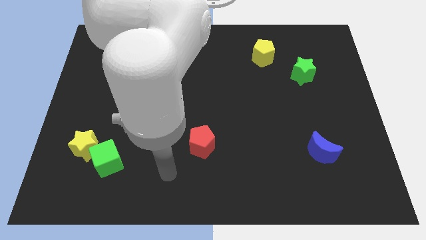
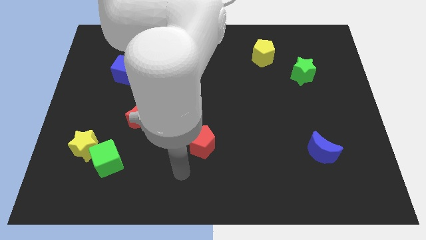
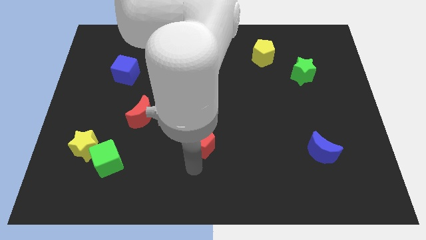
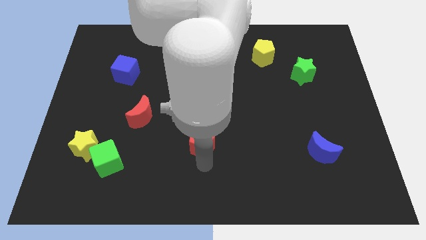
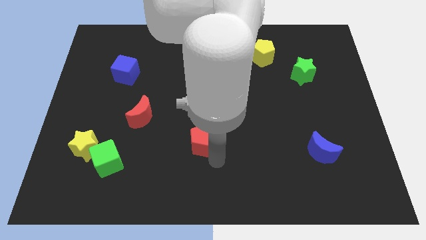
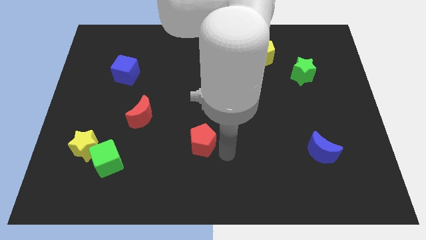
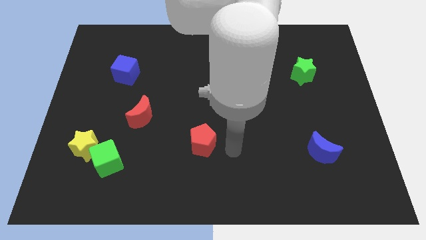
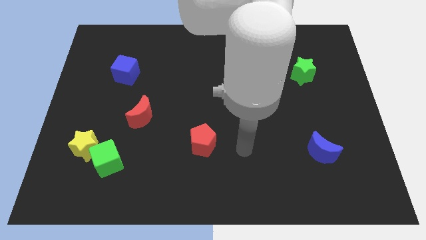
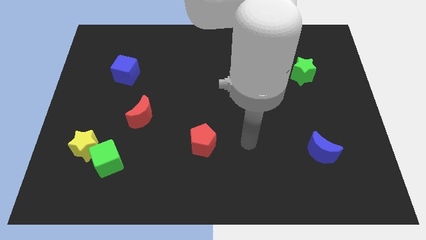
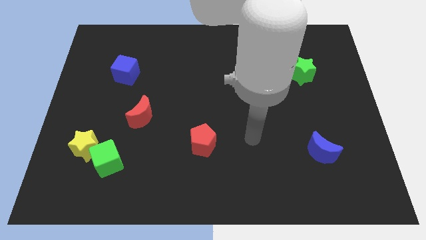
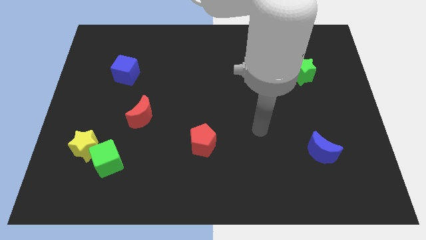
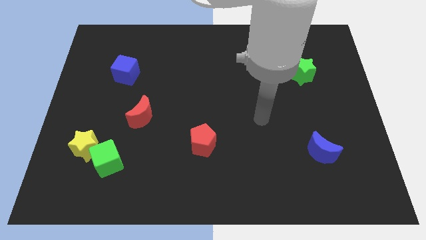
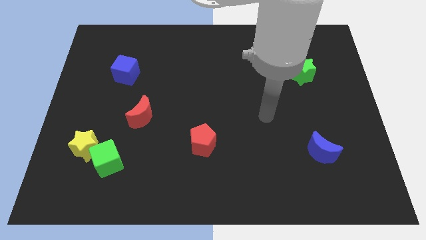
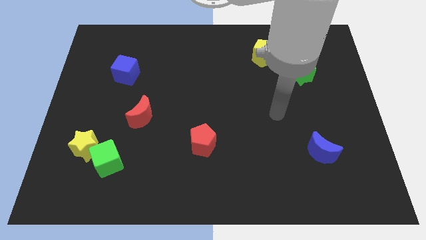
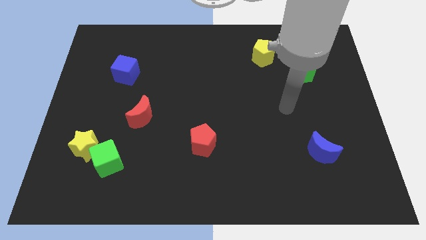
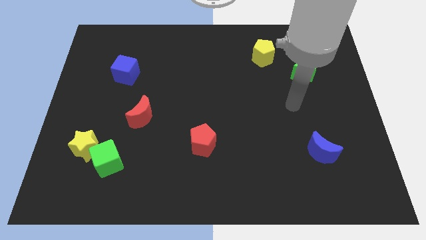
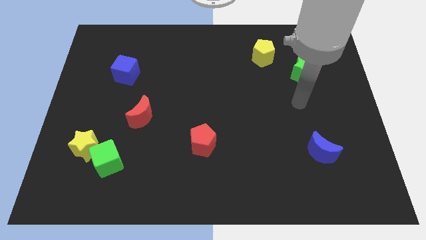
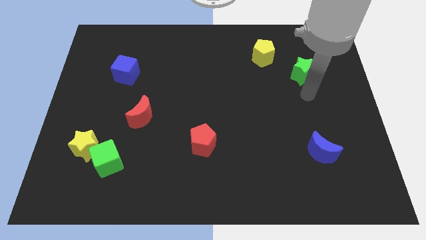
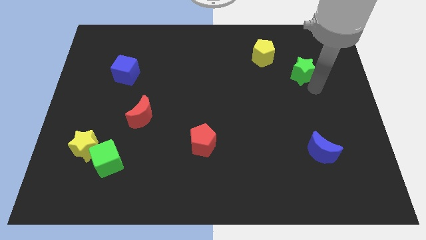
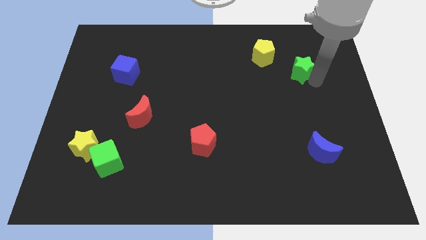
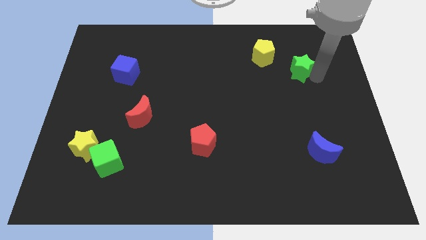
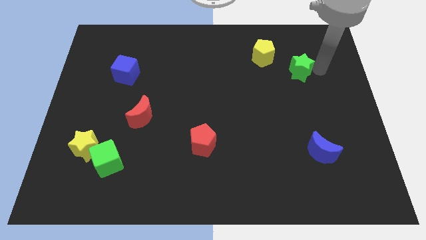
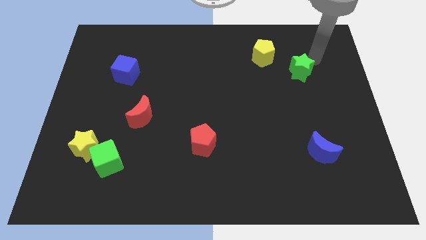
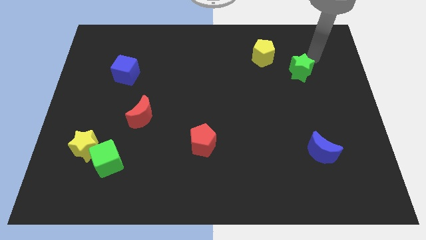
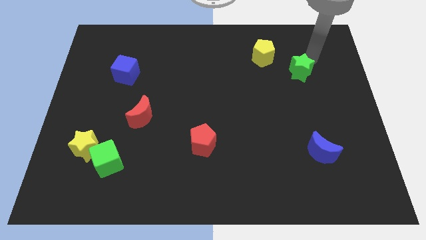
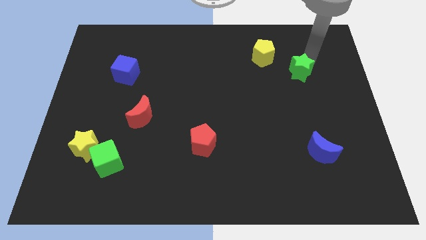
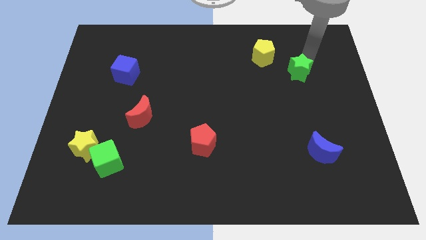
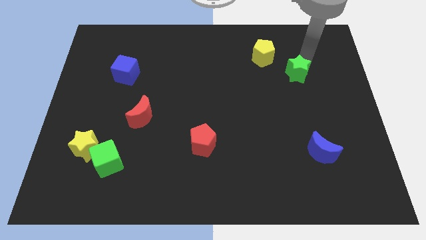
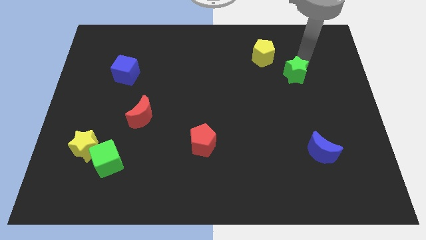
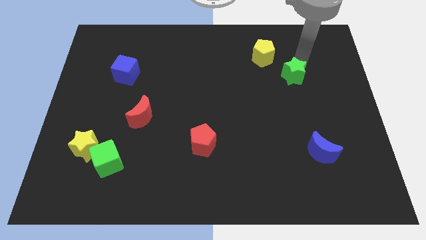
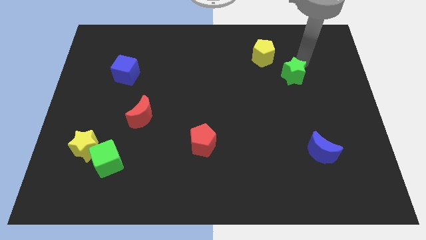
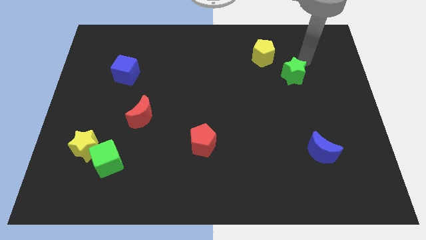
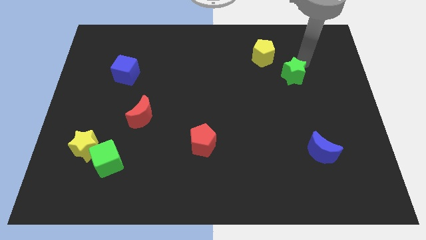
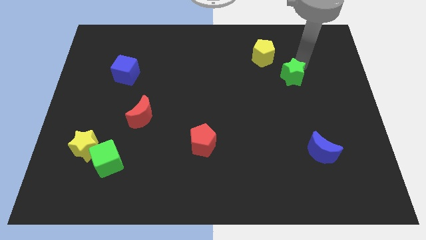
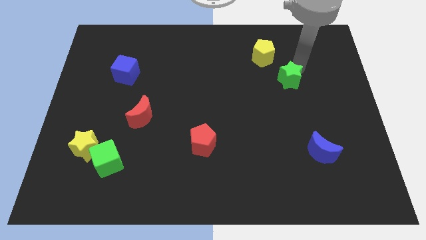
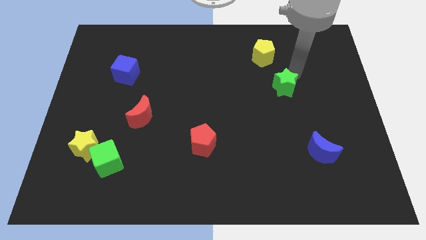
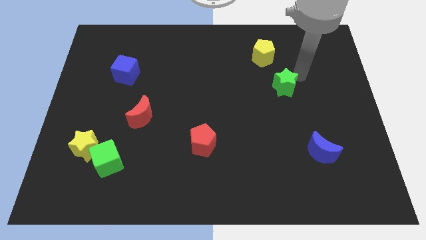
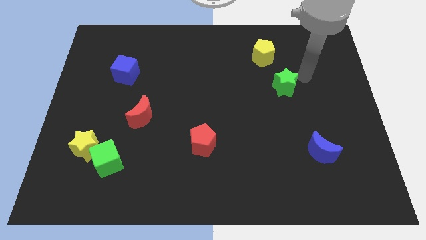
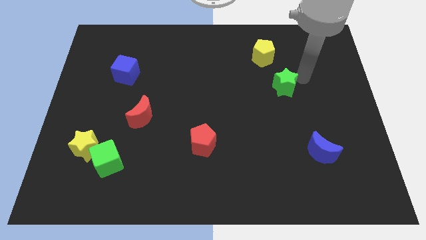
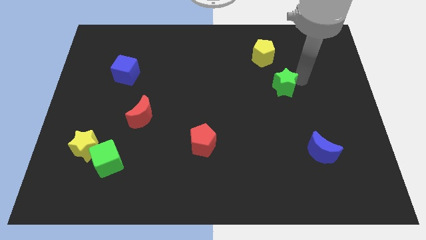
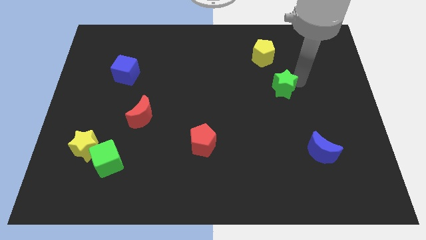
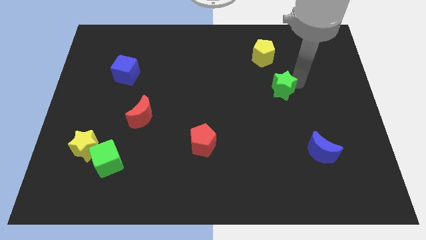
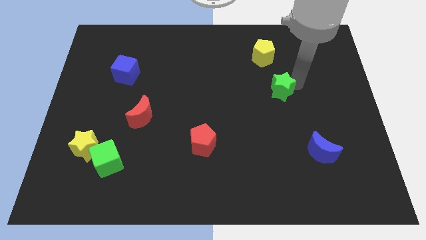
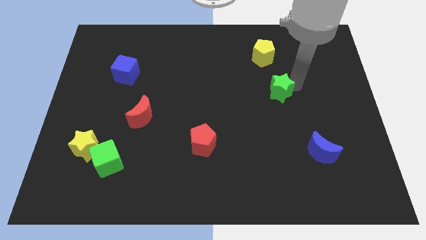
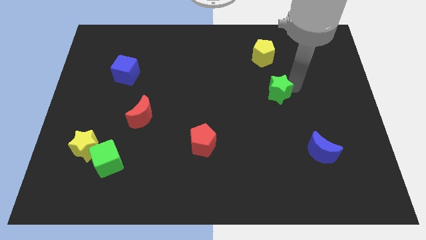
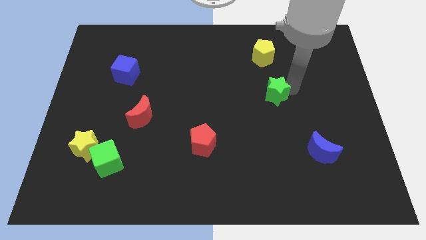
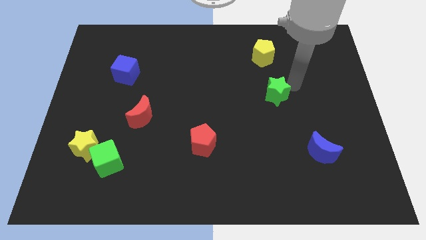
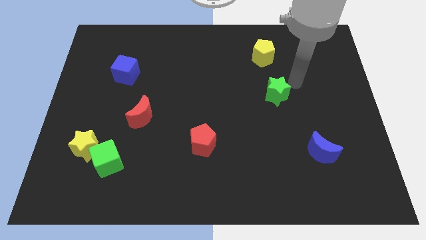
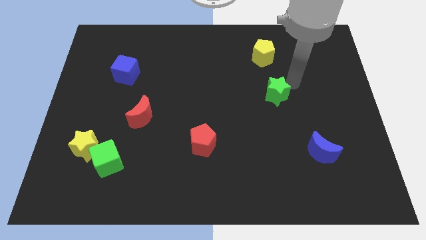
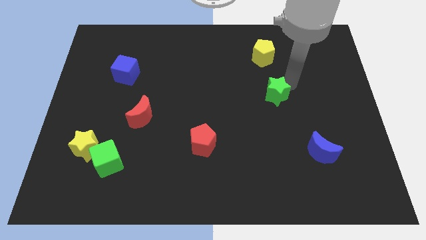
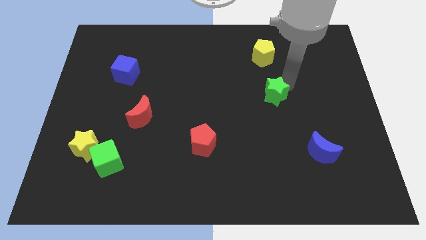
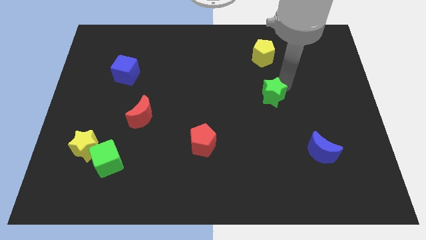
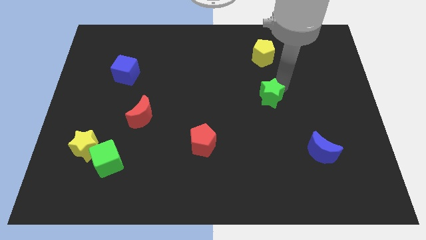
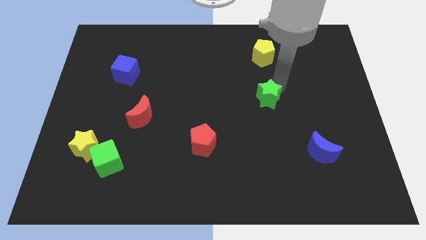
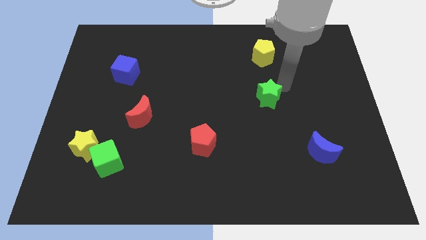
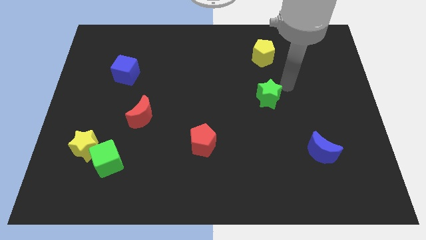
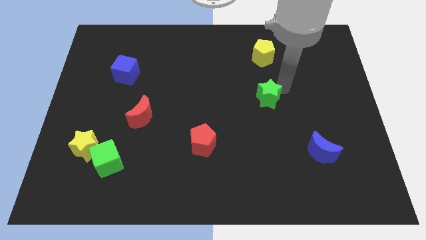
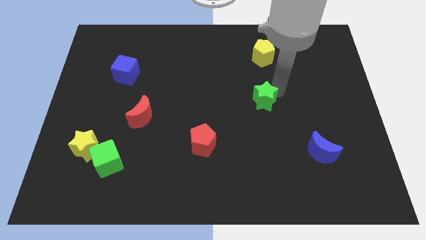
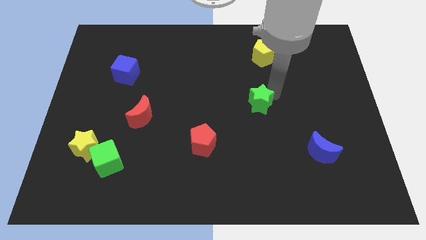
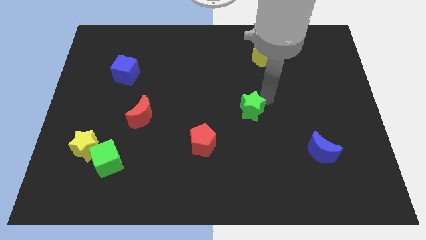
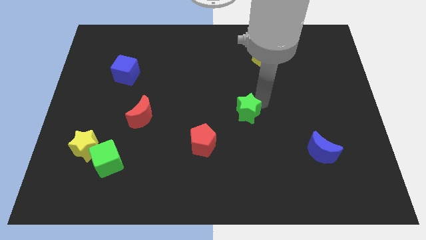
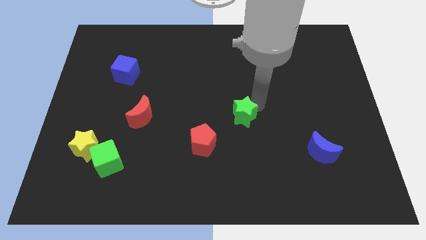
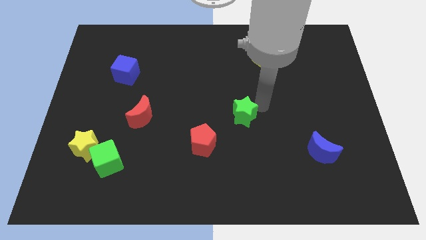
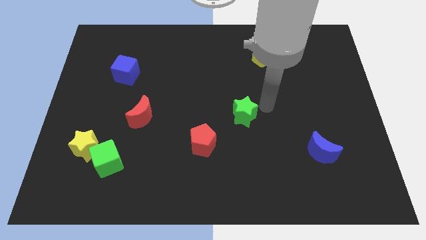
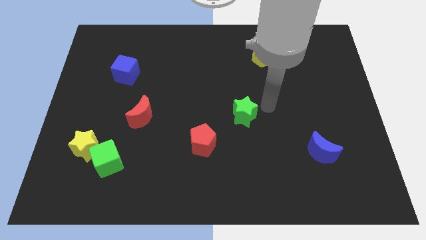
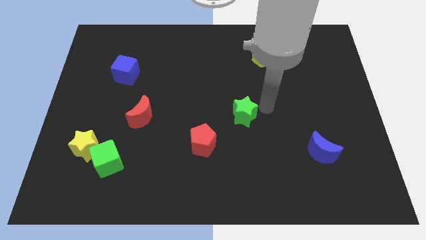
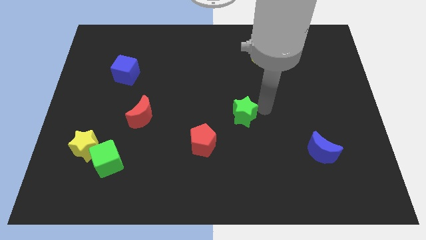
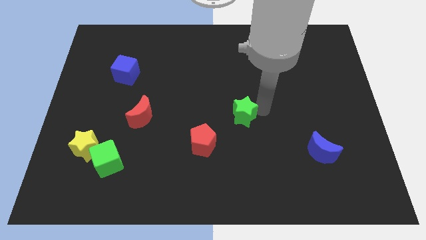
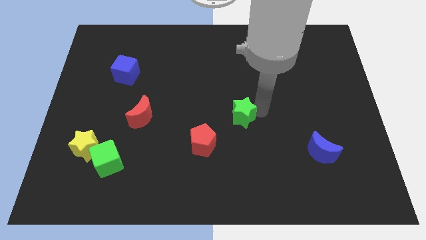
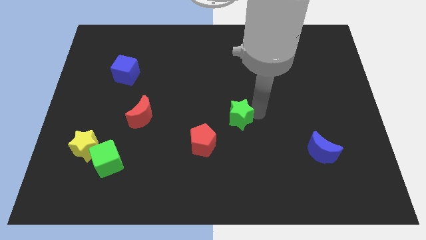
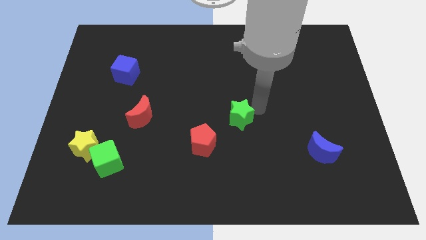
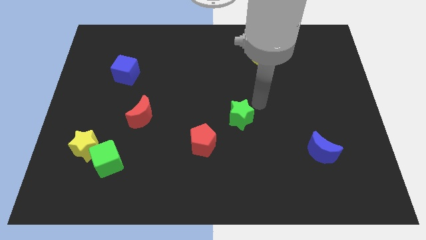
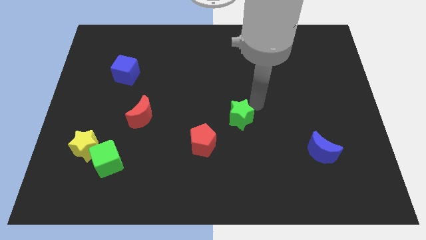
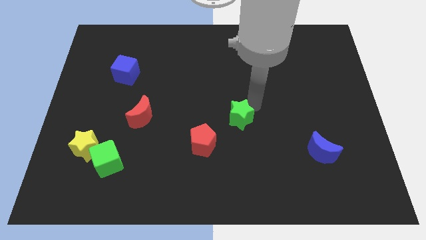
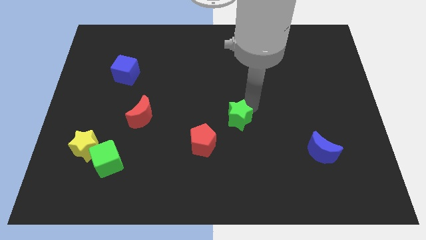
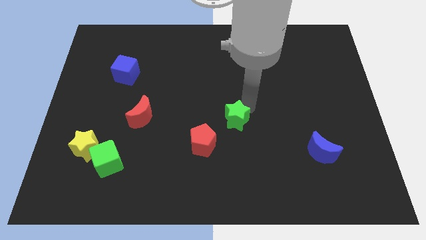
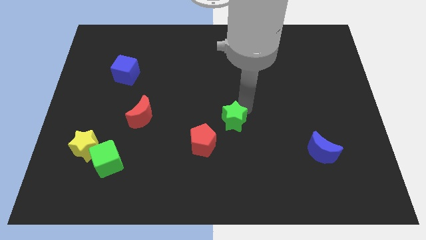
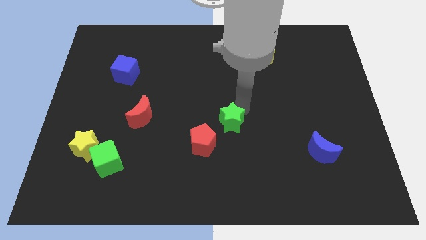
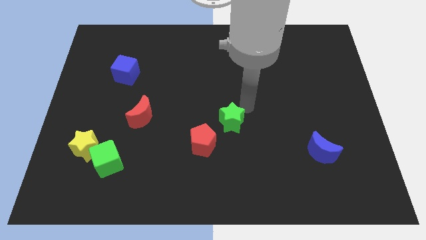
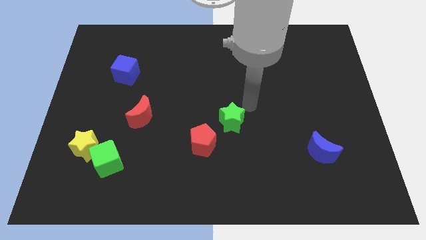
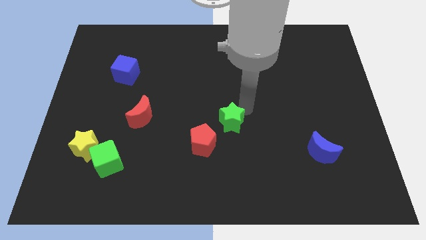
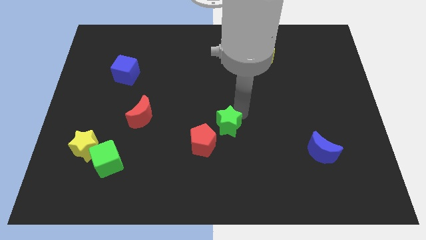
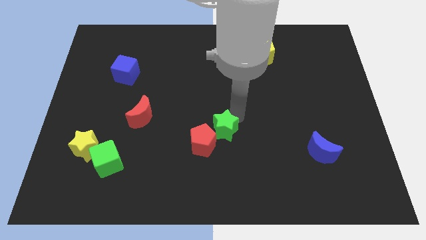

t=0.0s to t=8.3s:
put the green star towards the red pentagon

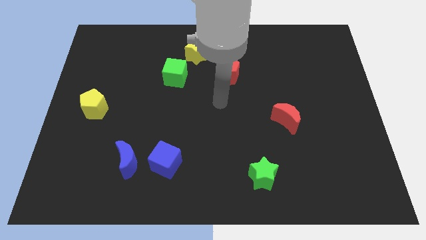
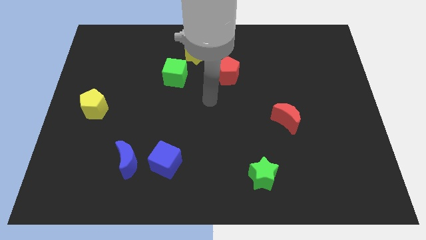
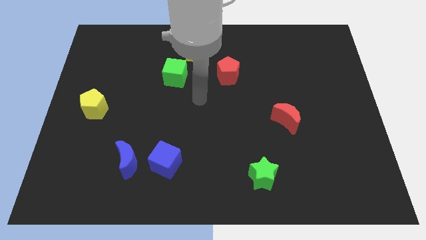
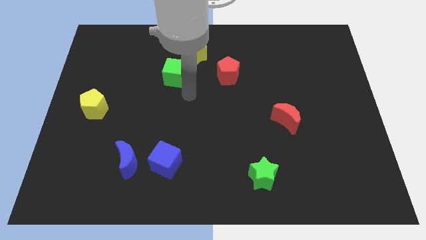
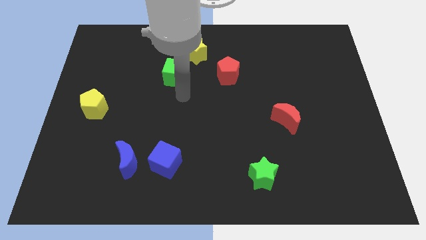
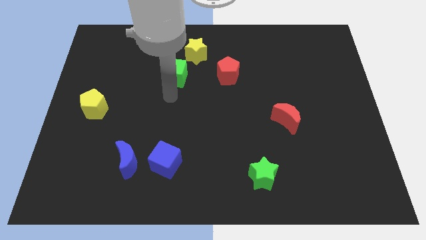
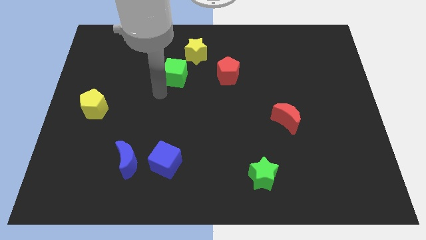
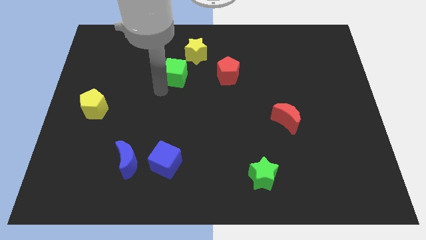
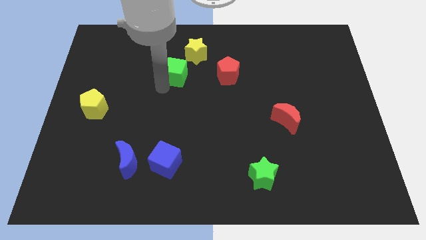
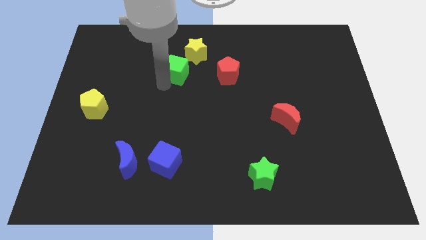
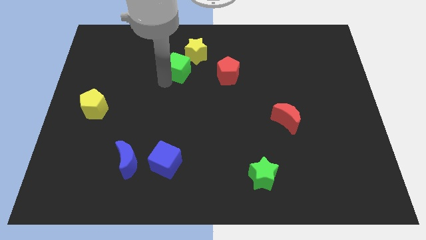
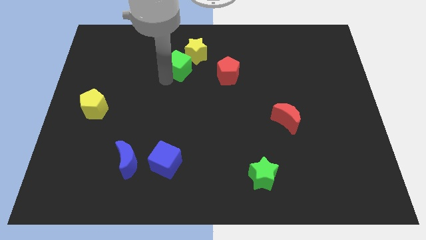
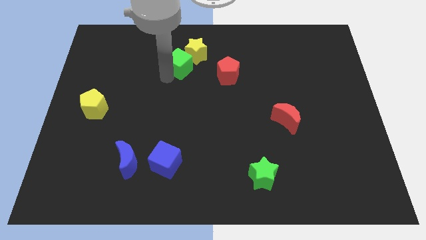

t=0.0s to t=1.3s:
slide the green cube next to the yellow star
